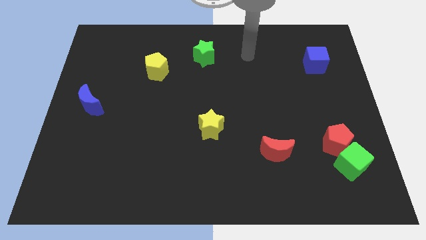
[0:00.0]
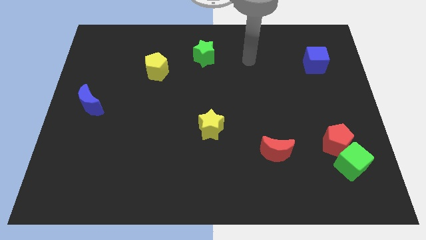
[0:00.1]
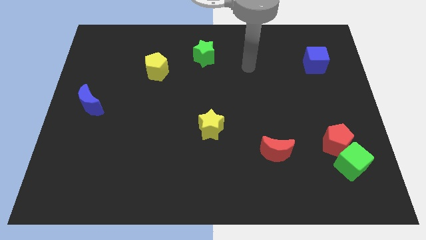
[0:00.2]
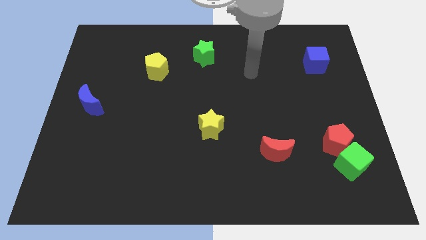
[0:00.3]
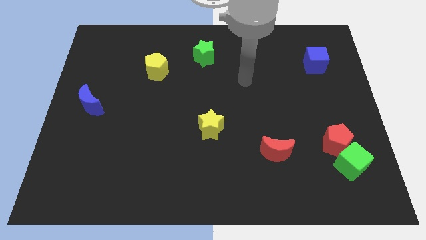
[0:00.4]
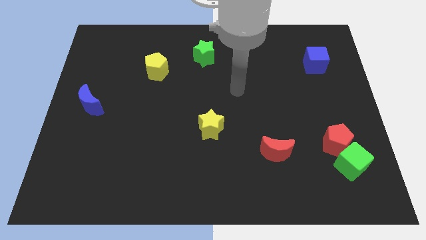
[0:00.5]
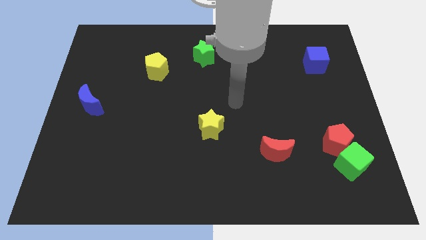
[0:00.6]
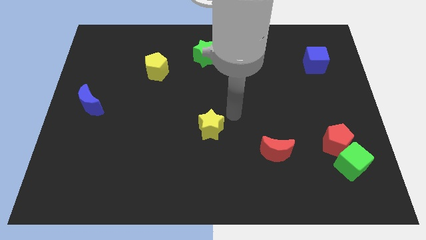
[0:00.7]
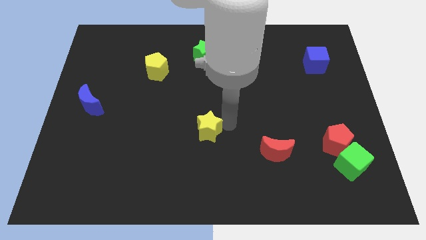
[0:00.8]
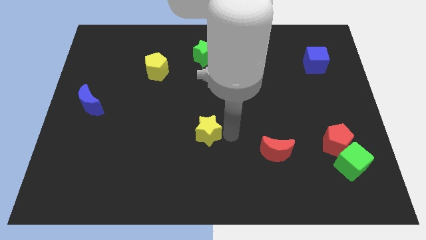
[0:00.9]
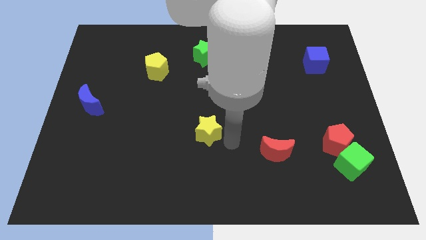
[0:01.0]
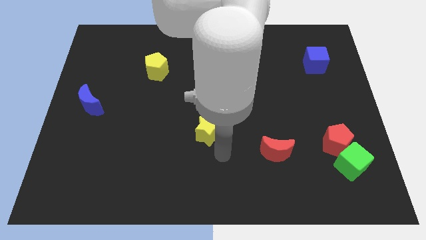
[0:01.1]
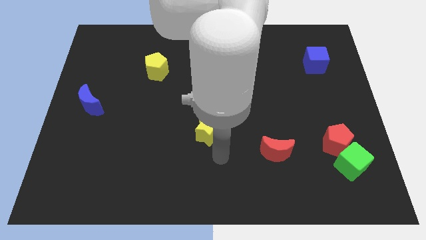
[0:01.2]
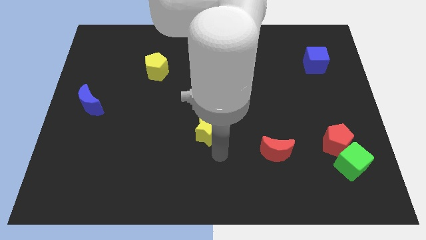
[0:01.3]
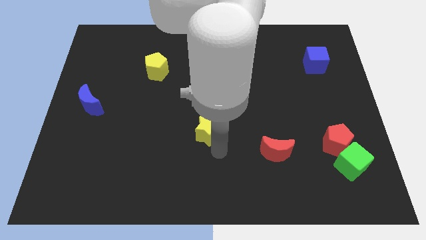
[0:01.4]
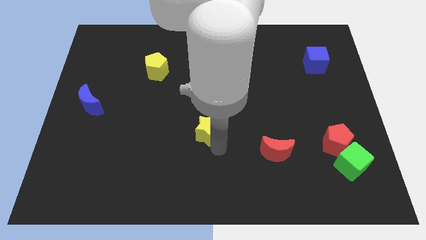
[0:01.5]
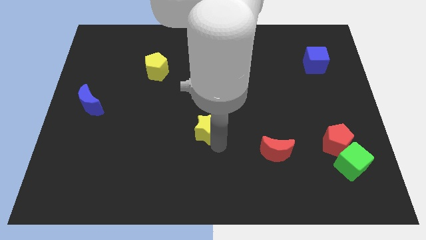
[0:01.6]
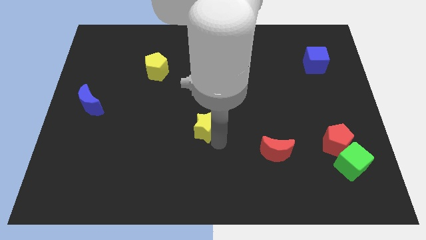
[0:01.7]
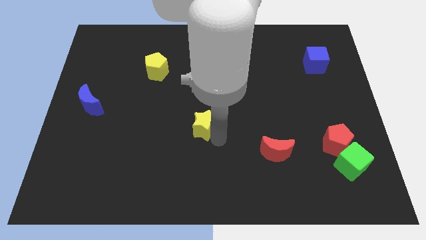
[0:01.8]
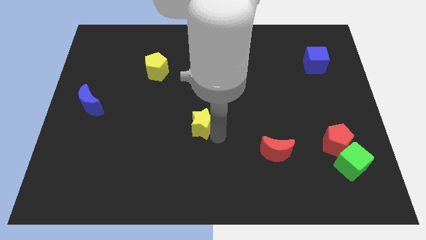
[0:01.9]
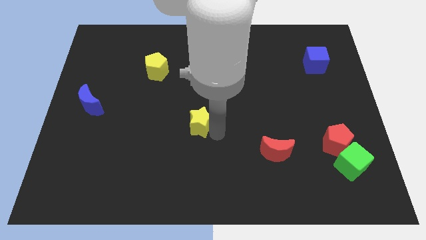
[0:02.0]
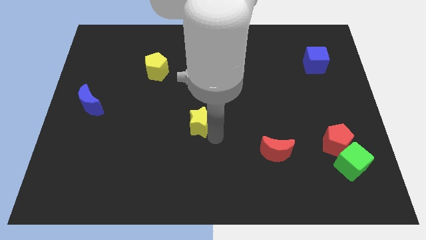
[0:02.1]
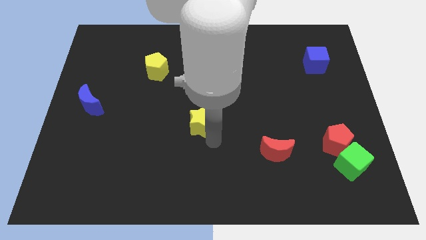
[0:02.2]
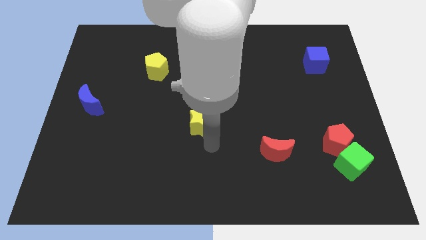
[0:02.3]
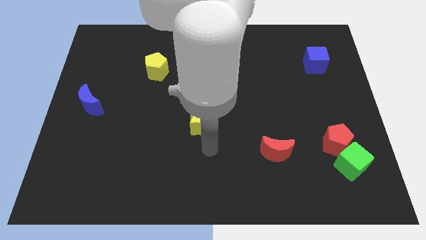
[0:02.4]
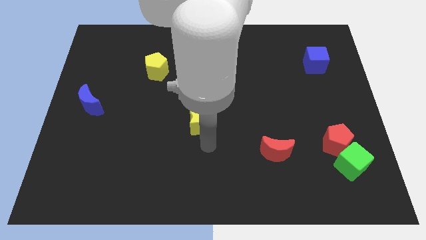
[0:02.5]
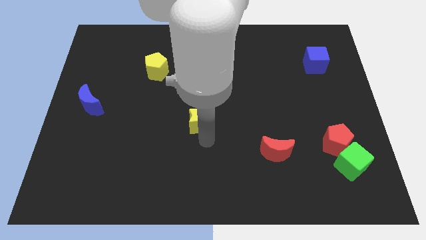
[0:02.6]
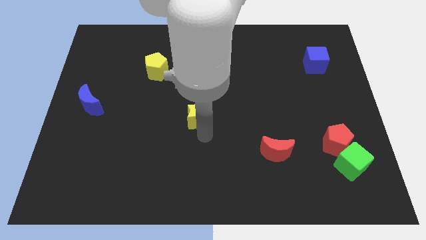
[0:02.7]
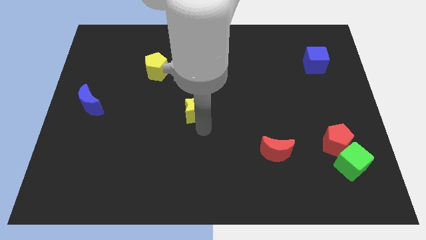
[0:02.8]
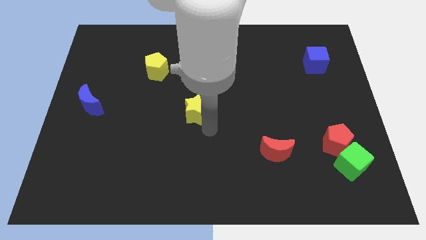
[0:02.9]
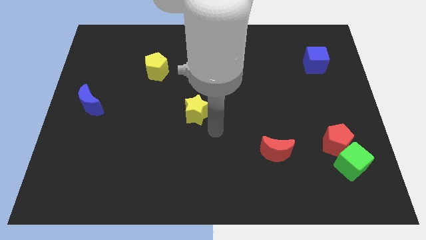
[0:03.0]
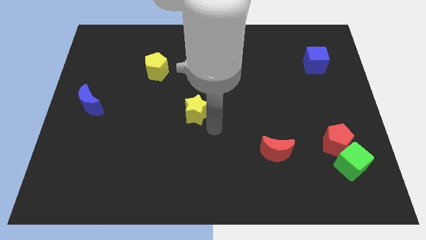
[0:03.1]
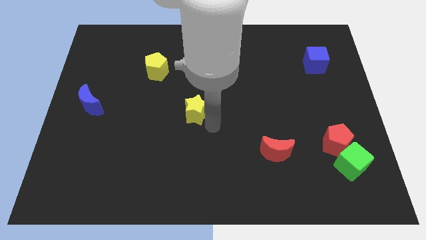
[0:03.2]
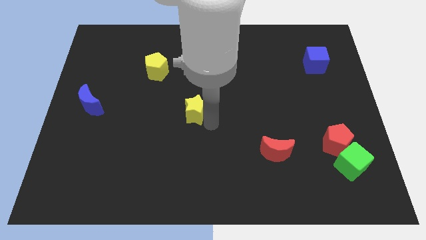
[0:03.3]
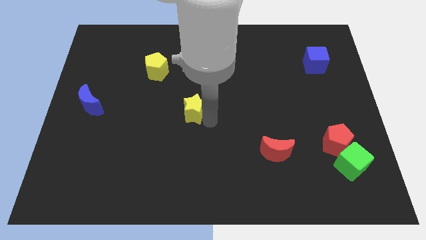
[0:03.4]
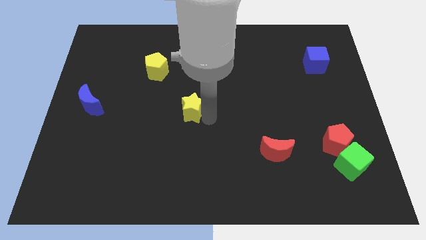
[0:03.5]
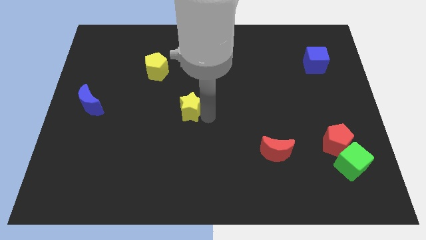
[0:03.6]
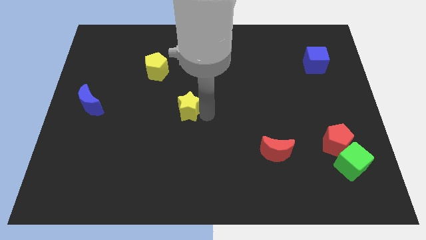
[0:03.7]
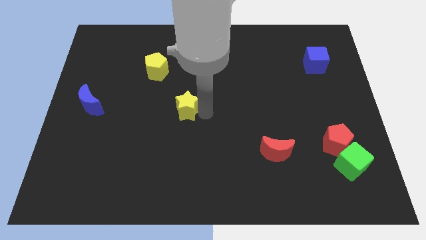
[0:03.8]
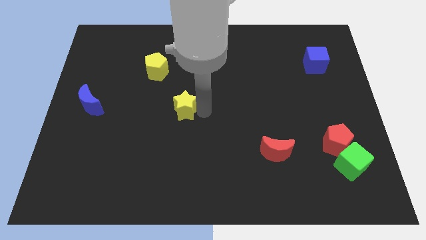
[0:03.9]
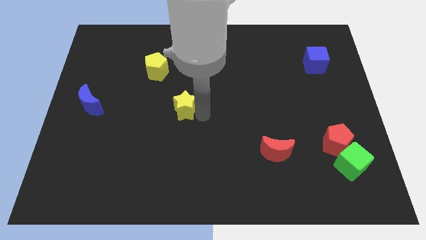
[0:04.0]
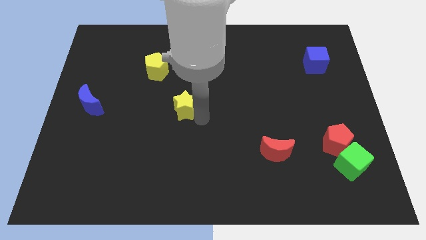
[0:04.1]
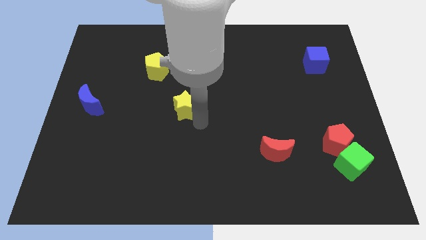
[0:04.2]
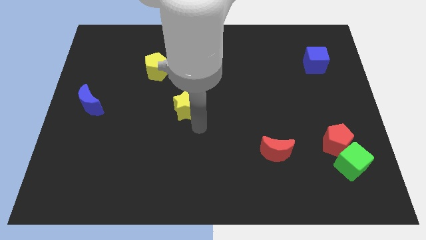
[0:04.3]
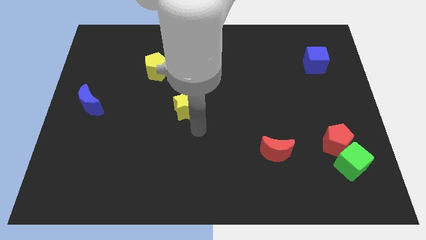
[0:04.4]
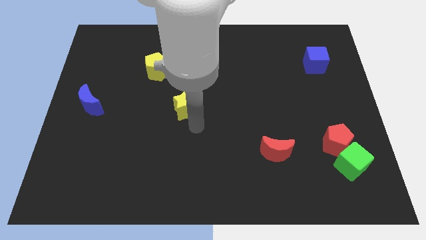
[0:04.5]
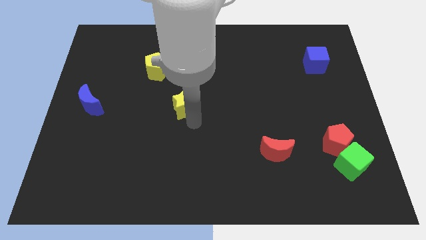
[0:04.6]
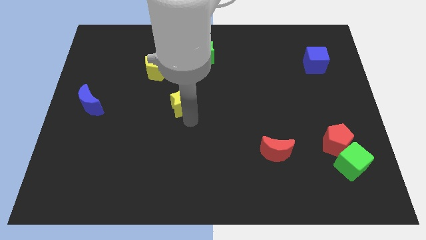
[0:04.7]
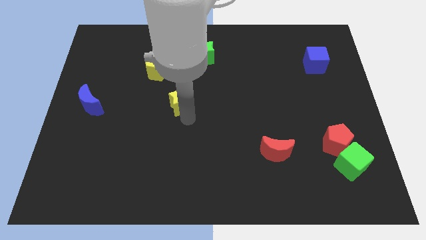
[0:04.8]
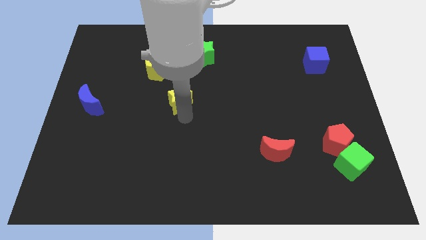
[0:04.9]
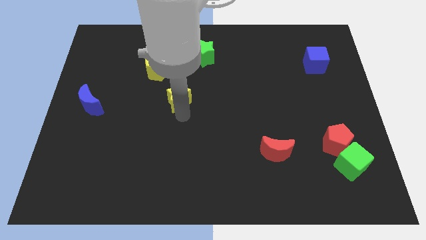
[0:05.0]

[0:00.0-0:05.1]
slide the yellow star to the bottom right of the yellow pentagon

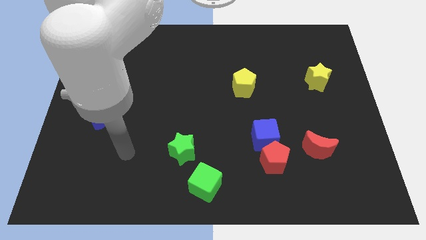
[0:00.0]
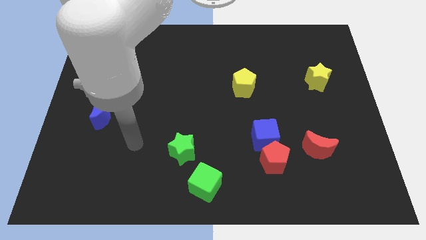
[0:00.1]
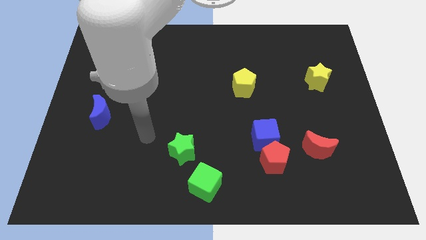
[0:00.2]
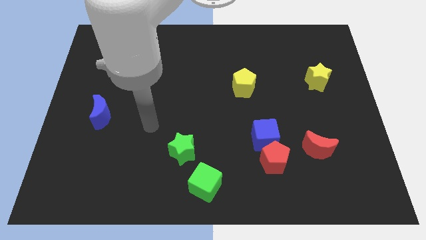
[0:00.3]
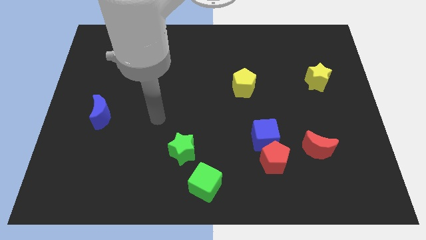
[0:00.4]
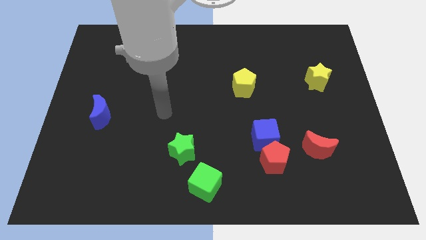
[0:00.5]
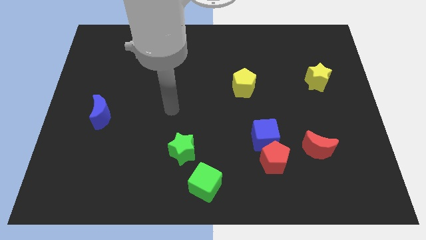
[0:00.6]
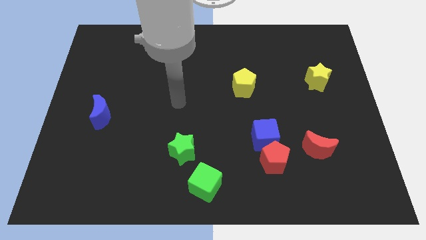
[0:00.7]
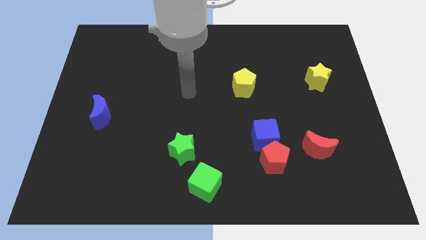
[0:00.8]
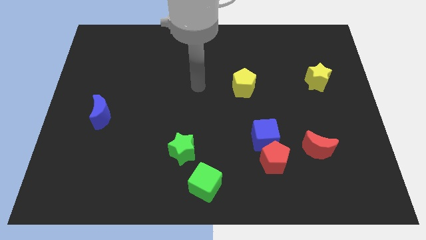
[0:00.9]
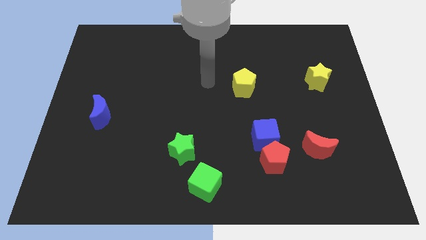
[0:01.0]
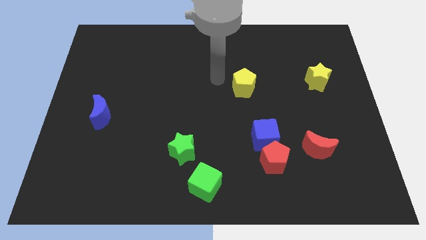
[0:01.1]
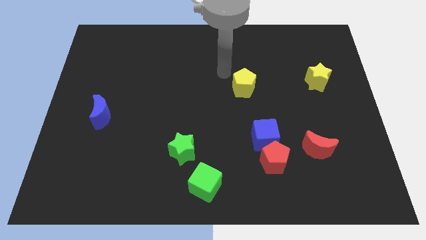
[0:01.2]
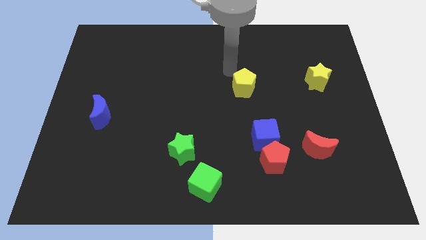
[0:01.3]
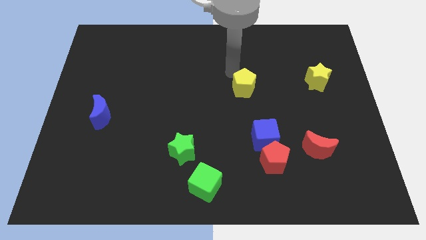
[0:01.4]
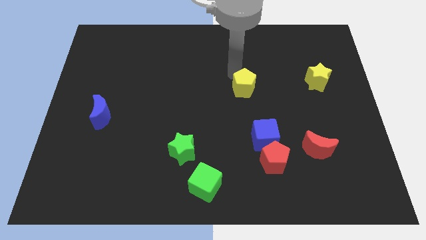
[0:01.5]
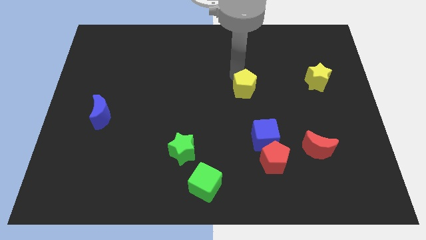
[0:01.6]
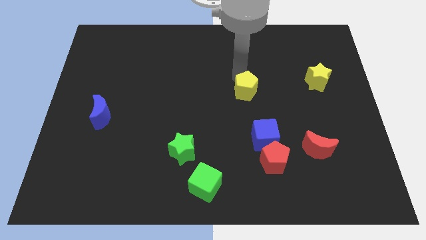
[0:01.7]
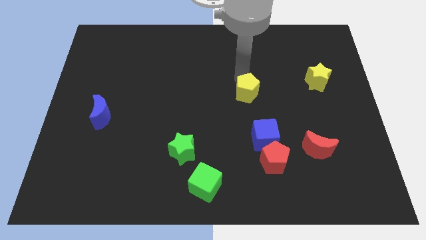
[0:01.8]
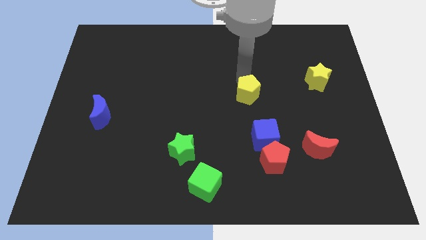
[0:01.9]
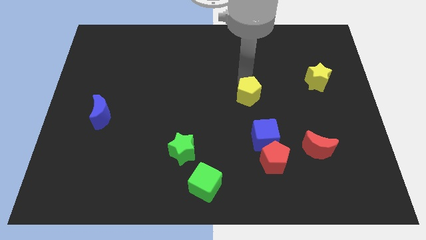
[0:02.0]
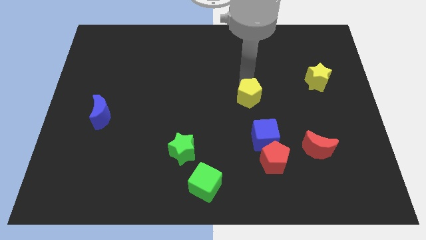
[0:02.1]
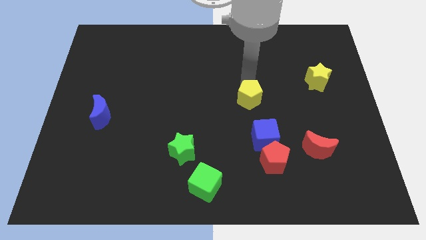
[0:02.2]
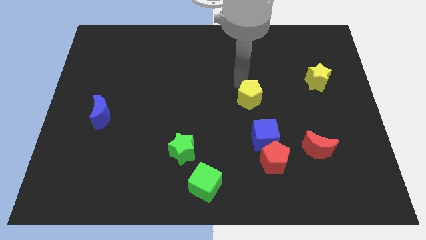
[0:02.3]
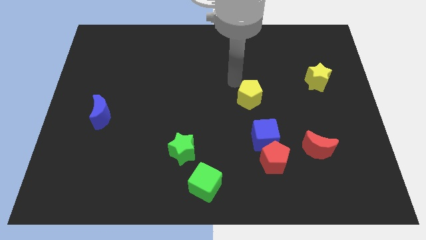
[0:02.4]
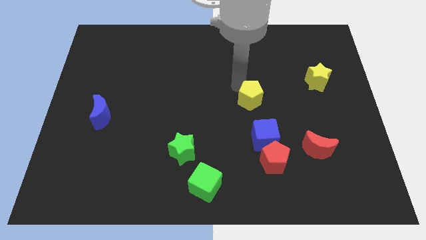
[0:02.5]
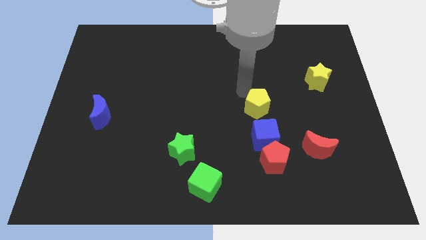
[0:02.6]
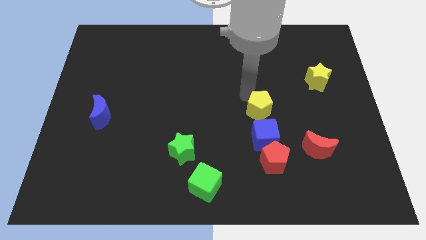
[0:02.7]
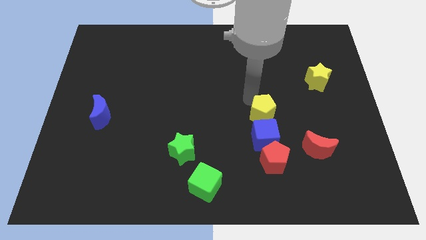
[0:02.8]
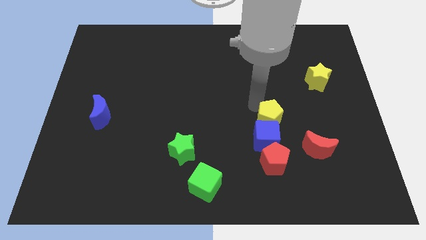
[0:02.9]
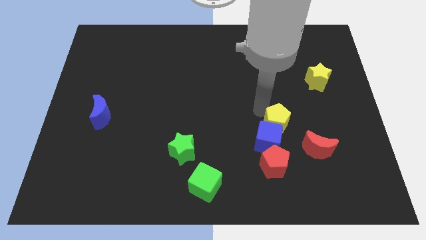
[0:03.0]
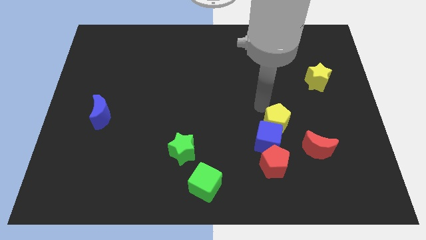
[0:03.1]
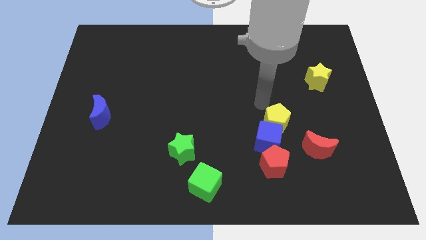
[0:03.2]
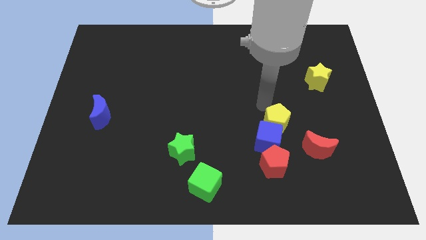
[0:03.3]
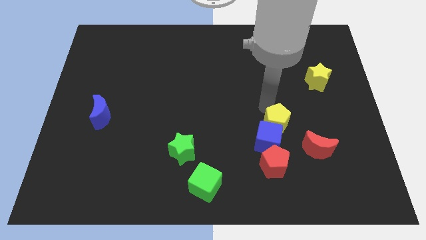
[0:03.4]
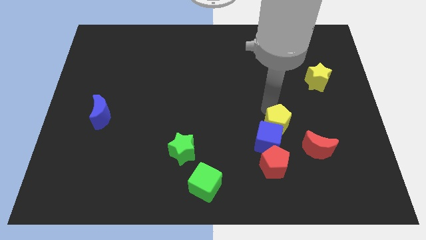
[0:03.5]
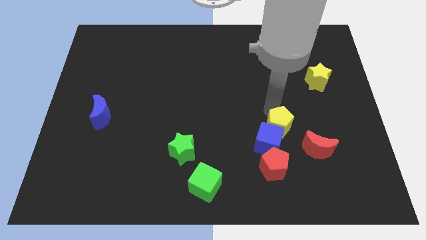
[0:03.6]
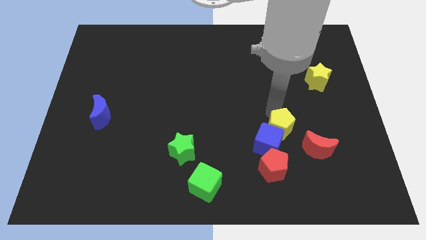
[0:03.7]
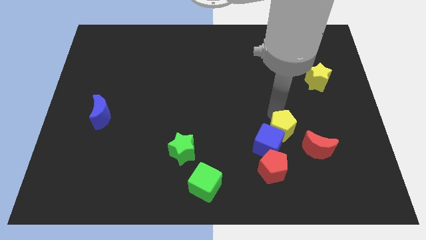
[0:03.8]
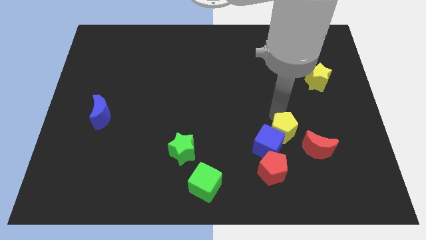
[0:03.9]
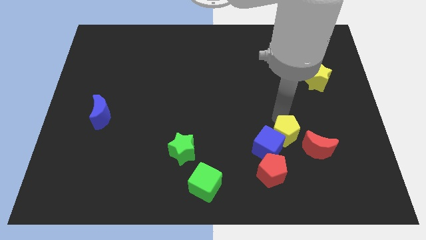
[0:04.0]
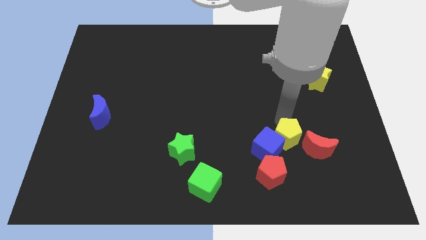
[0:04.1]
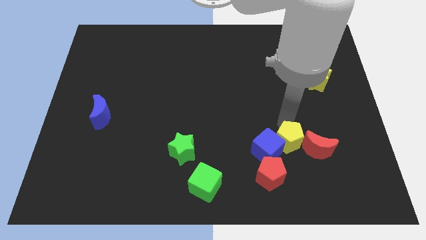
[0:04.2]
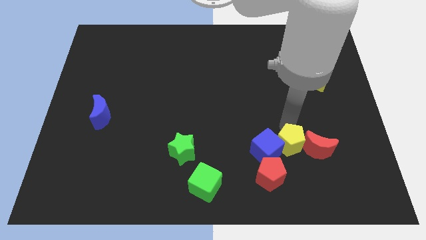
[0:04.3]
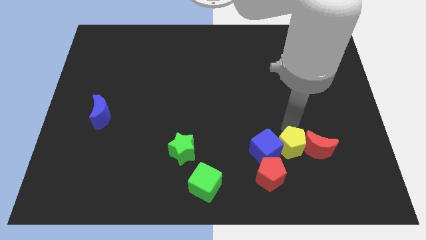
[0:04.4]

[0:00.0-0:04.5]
put the yellow pentagon diagonally down and to the left of the red moon
